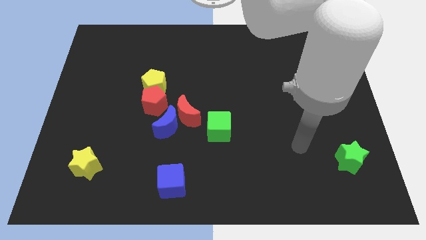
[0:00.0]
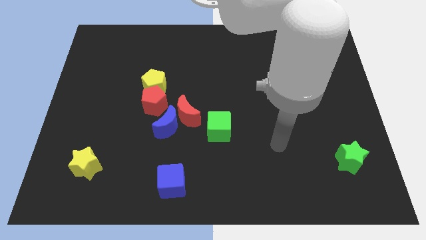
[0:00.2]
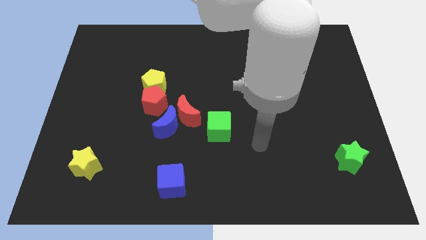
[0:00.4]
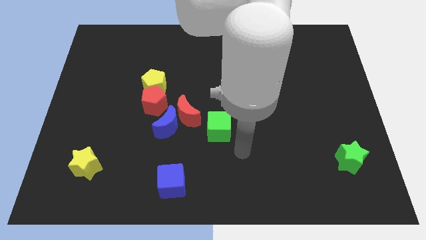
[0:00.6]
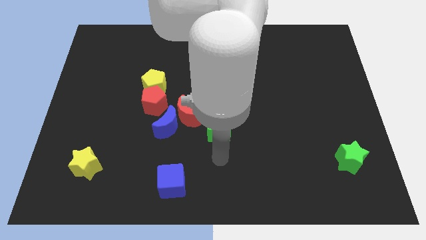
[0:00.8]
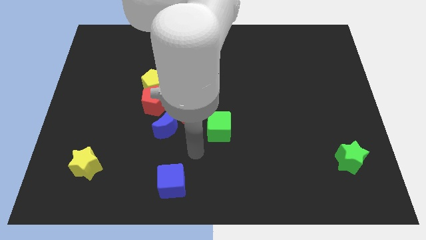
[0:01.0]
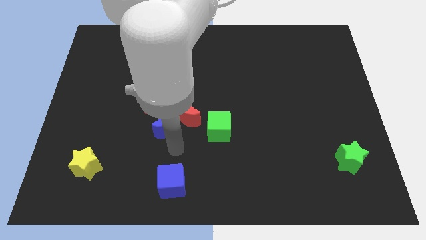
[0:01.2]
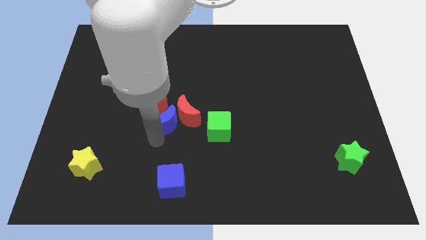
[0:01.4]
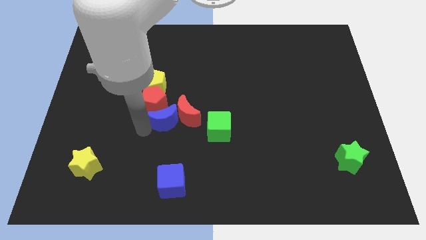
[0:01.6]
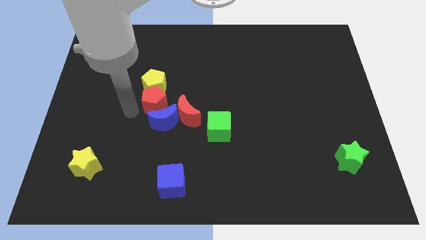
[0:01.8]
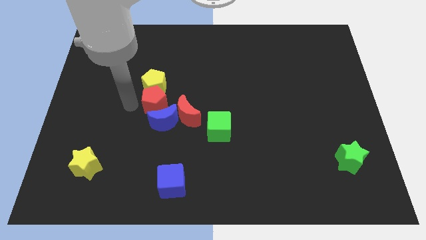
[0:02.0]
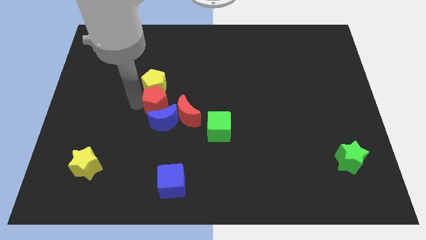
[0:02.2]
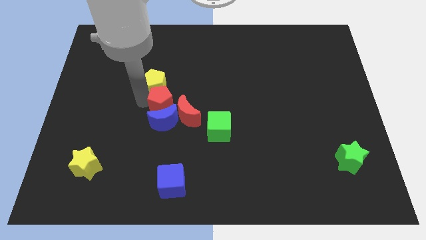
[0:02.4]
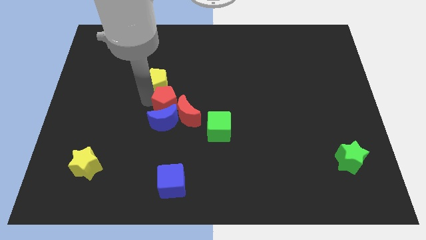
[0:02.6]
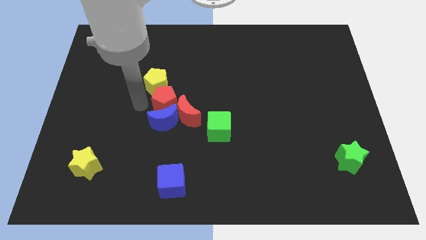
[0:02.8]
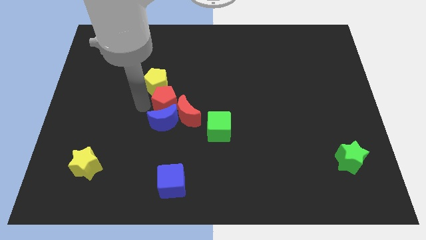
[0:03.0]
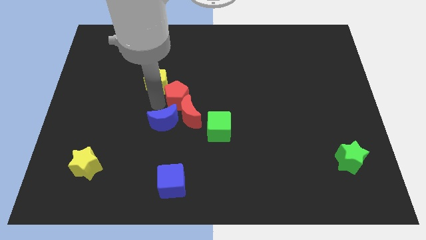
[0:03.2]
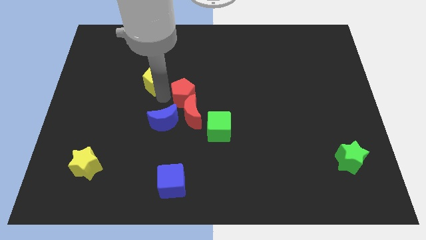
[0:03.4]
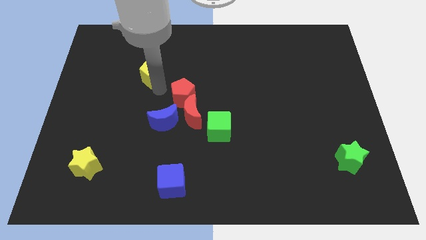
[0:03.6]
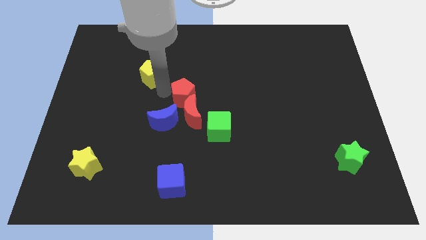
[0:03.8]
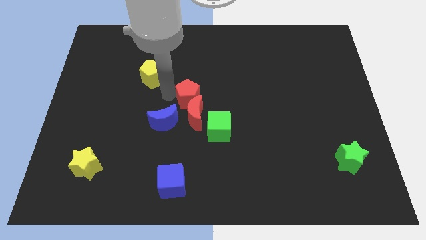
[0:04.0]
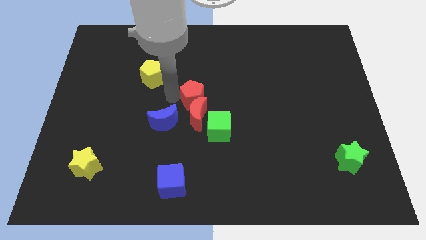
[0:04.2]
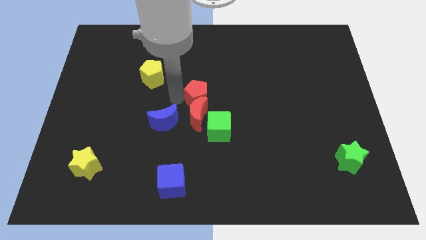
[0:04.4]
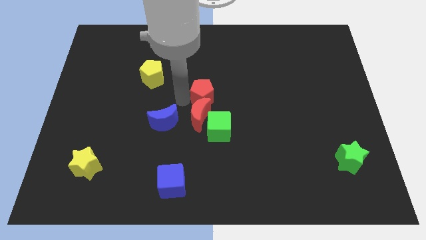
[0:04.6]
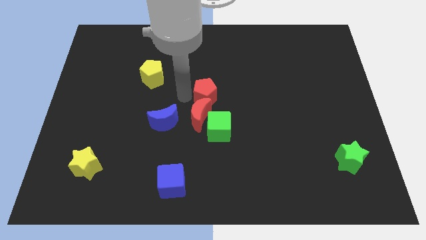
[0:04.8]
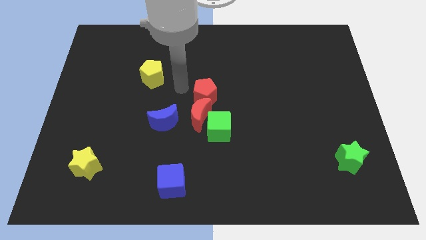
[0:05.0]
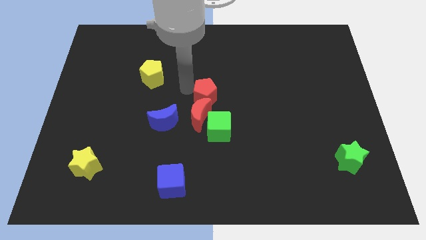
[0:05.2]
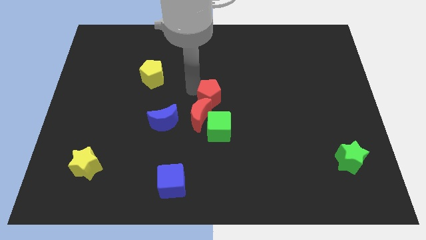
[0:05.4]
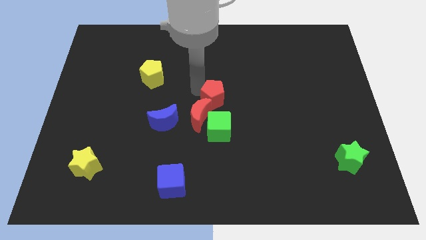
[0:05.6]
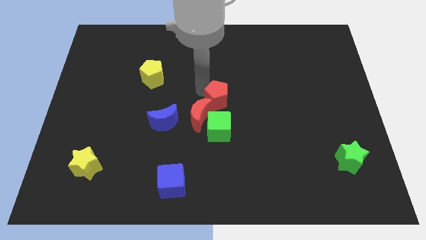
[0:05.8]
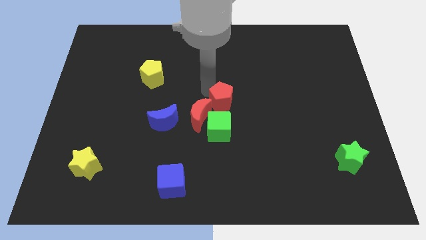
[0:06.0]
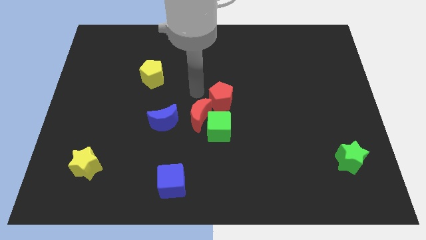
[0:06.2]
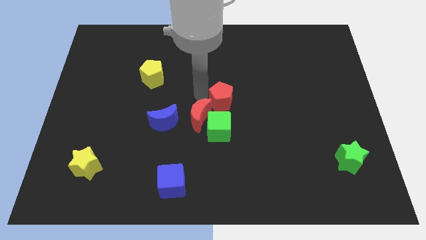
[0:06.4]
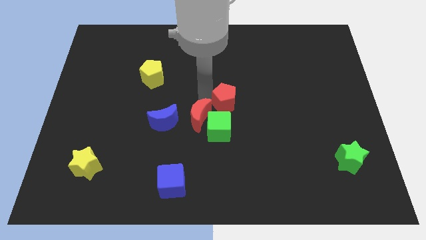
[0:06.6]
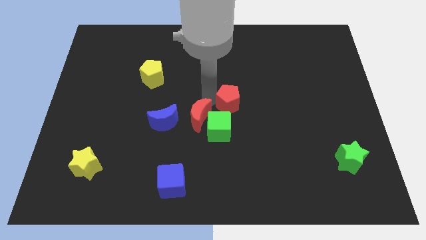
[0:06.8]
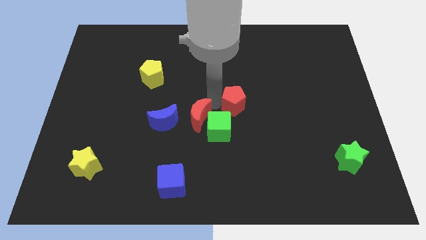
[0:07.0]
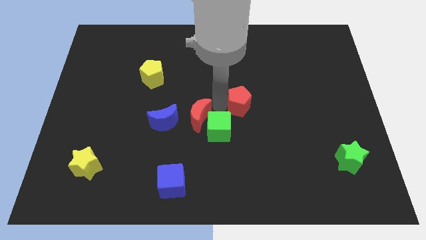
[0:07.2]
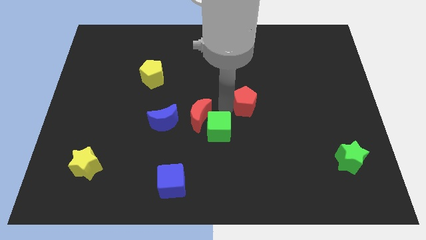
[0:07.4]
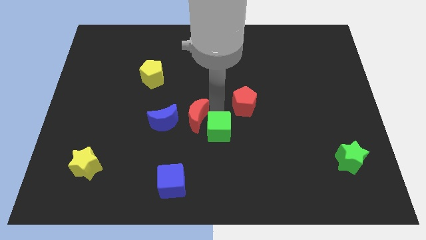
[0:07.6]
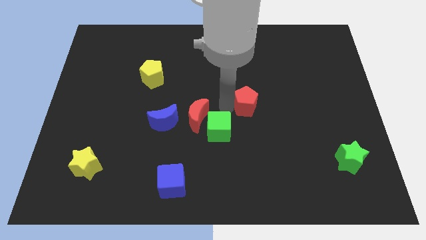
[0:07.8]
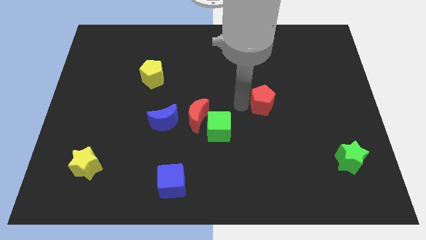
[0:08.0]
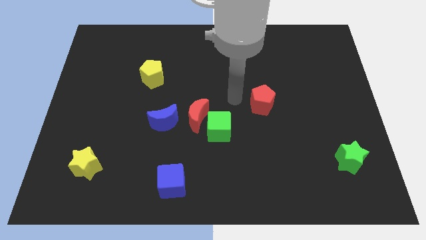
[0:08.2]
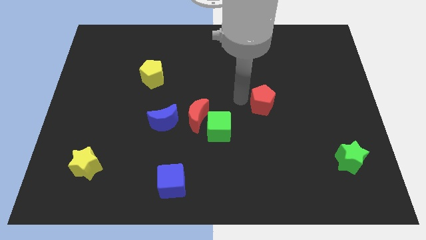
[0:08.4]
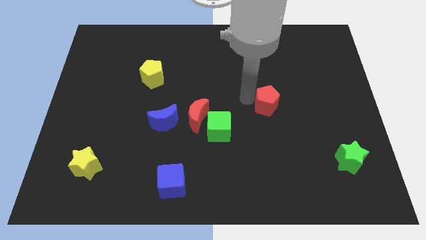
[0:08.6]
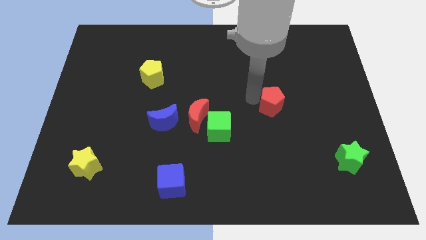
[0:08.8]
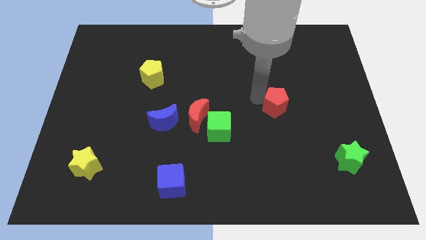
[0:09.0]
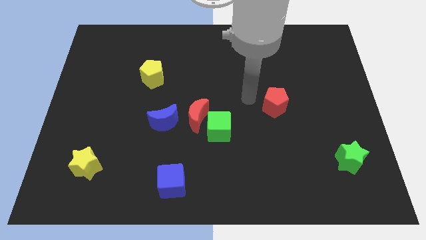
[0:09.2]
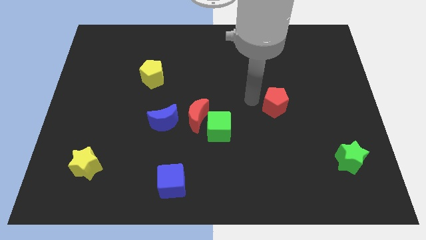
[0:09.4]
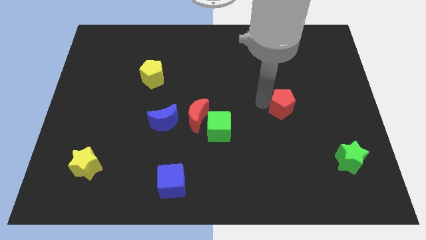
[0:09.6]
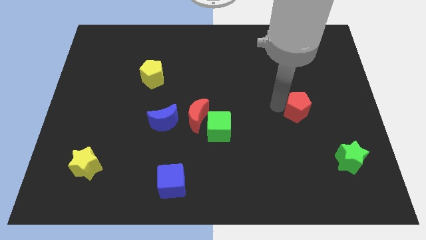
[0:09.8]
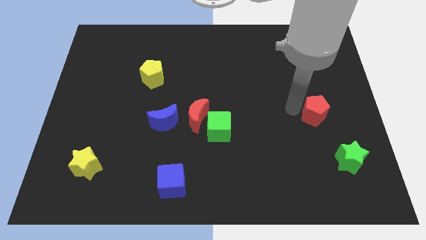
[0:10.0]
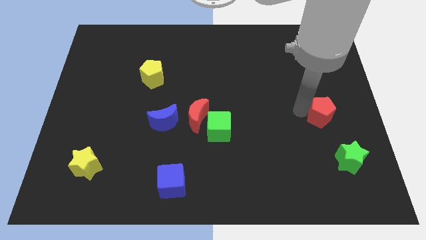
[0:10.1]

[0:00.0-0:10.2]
slide the red pentagon above the green star

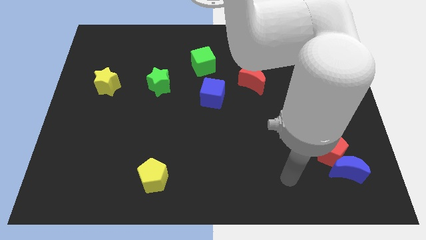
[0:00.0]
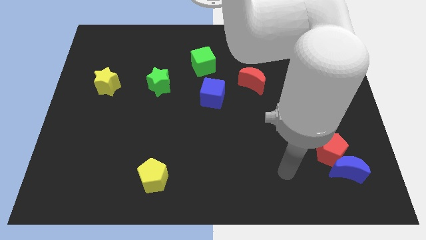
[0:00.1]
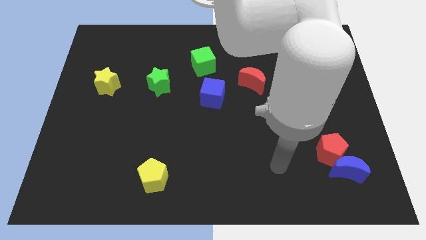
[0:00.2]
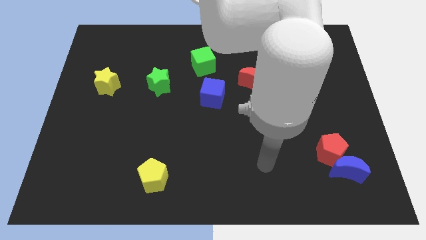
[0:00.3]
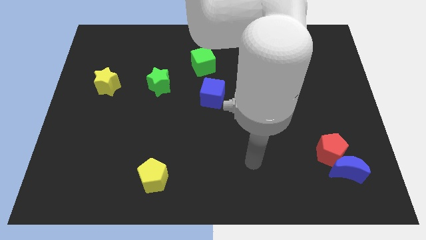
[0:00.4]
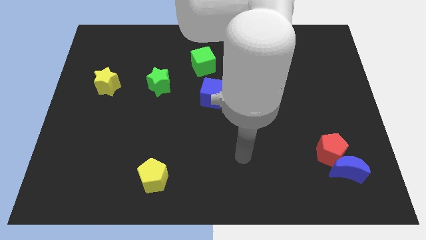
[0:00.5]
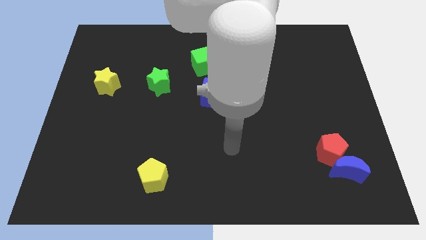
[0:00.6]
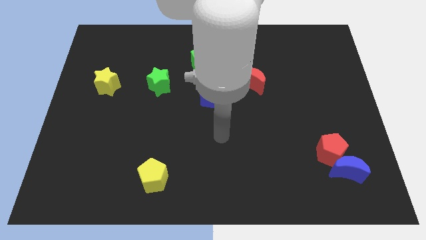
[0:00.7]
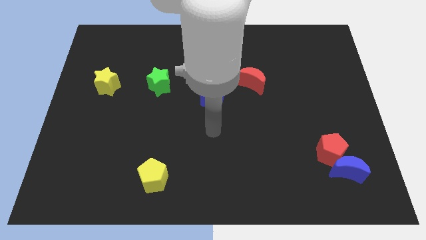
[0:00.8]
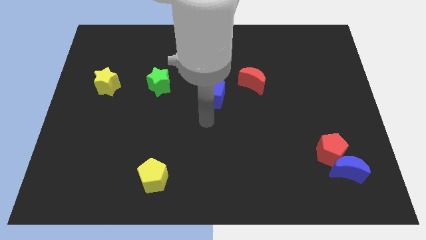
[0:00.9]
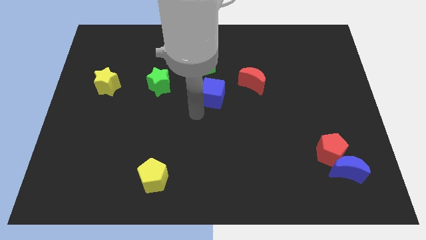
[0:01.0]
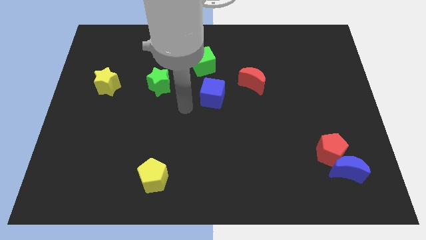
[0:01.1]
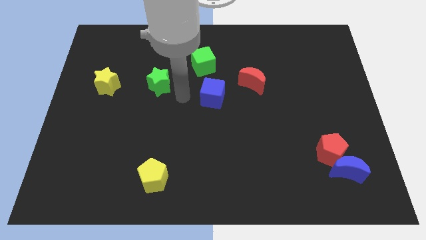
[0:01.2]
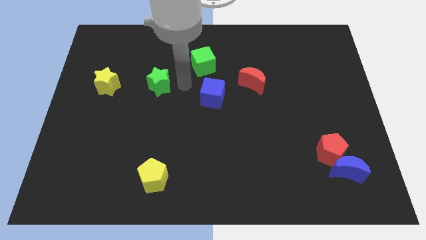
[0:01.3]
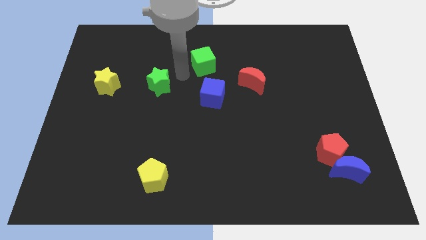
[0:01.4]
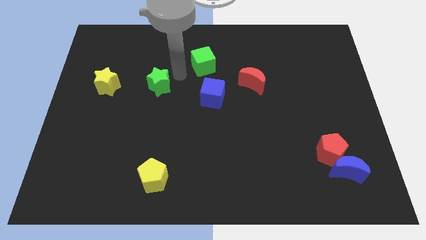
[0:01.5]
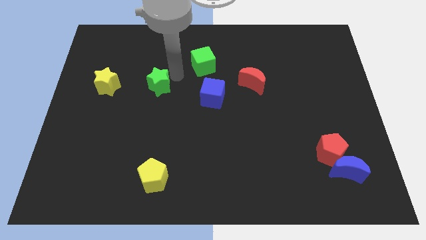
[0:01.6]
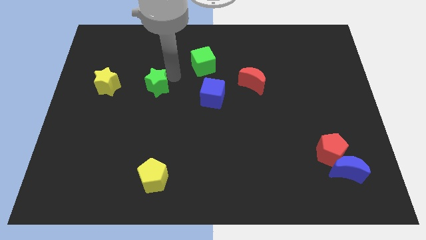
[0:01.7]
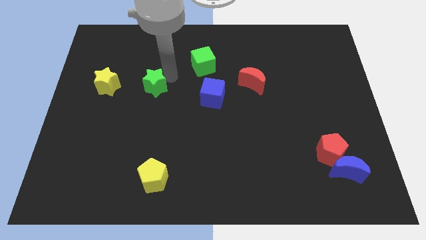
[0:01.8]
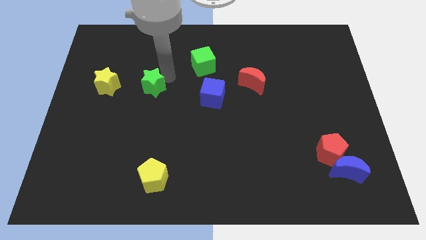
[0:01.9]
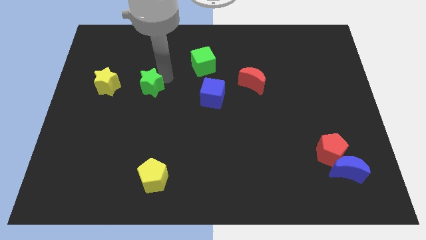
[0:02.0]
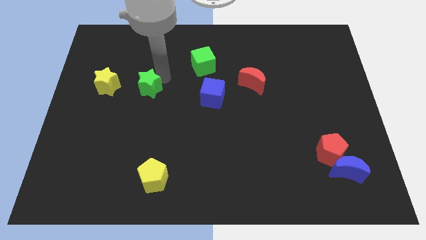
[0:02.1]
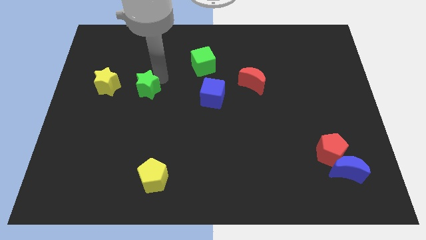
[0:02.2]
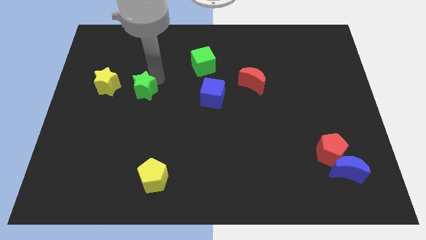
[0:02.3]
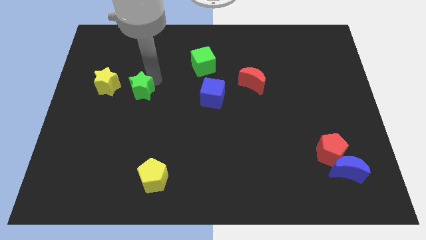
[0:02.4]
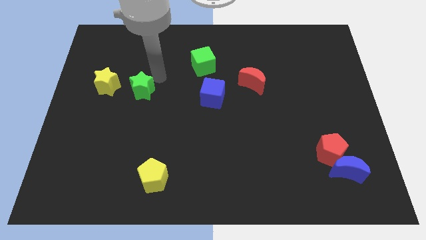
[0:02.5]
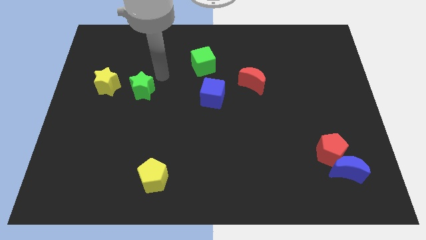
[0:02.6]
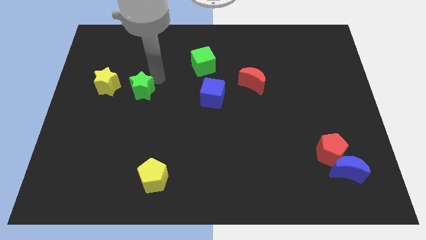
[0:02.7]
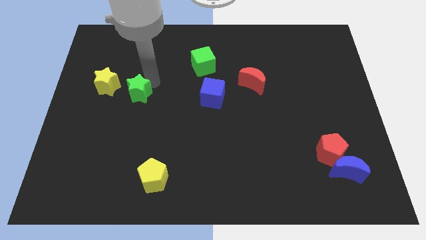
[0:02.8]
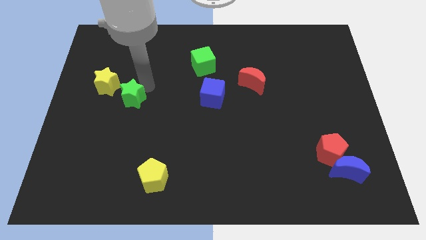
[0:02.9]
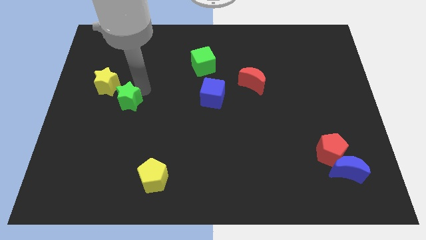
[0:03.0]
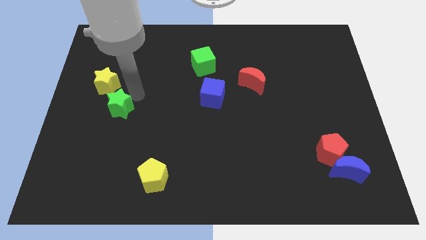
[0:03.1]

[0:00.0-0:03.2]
push the green star to the bottom of the yellow star
